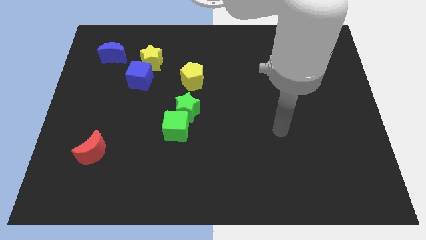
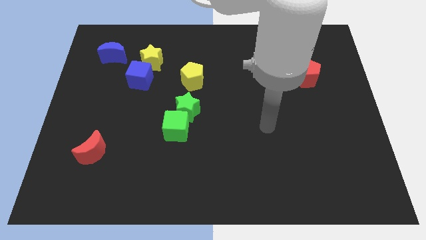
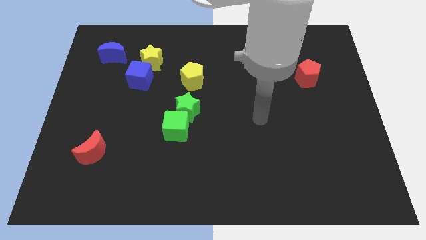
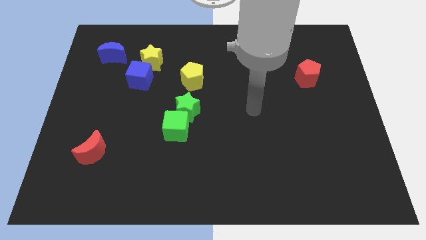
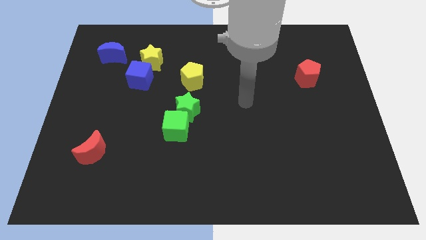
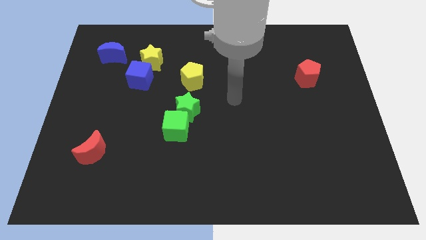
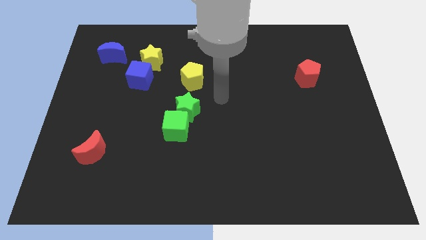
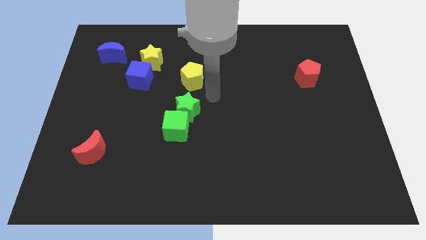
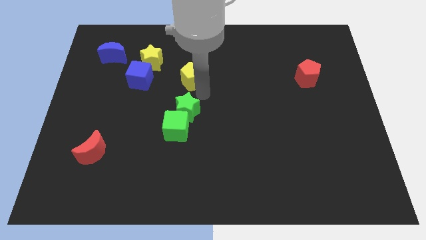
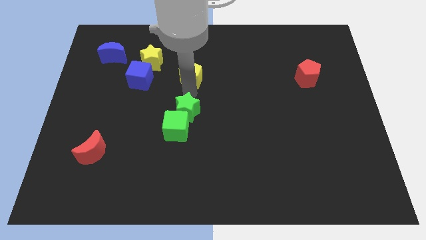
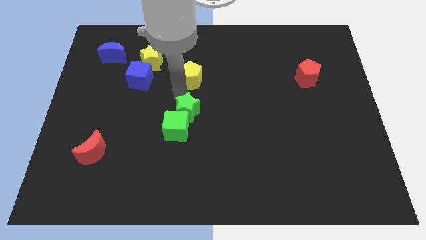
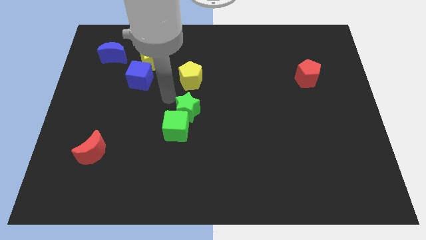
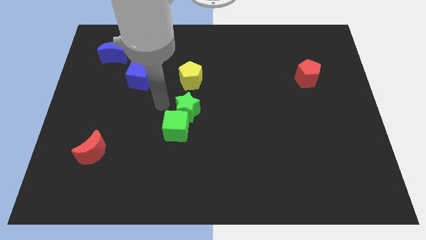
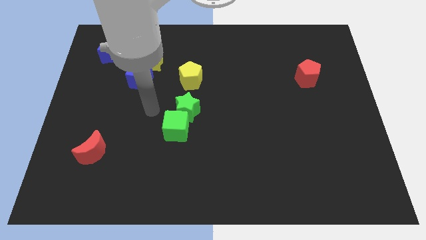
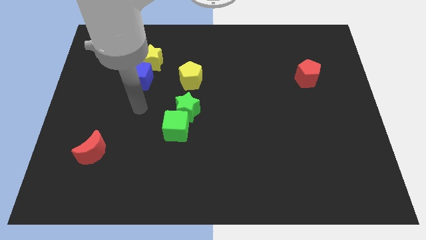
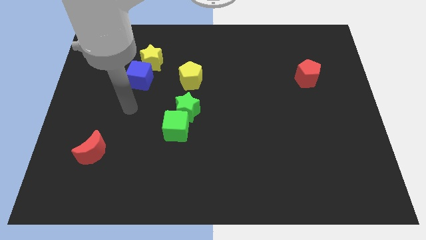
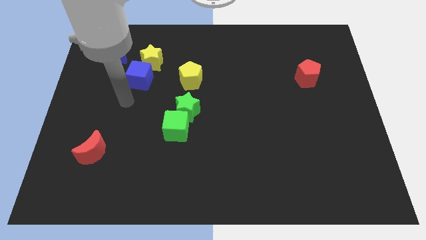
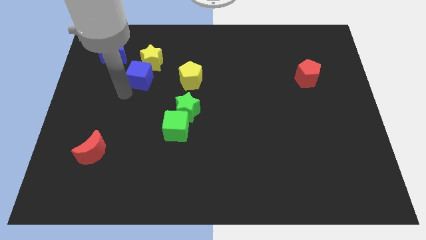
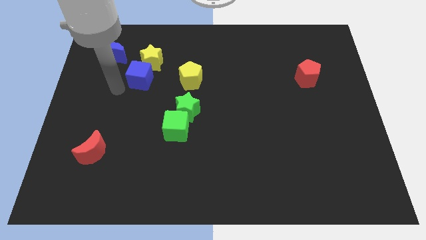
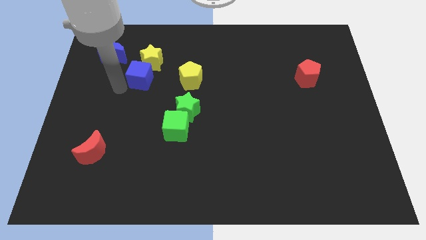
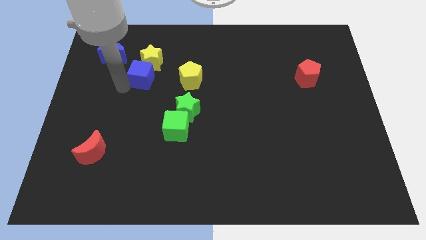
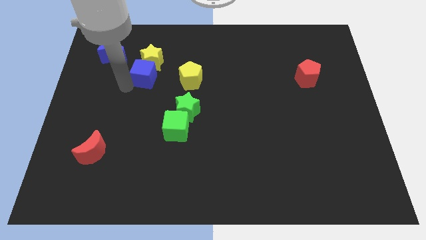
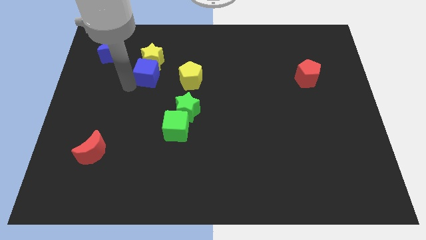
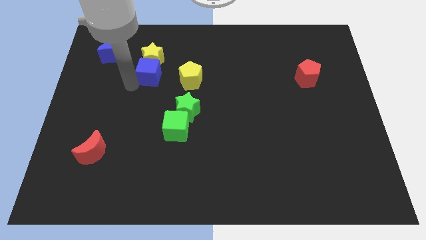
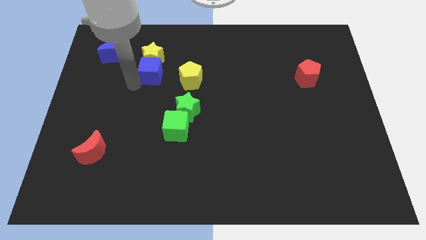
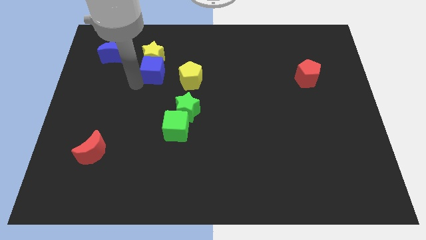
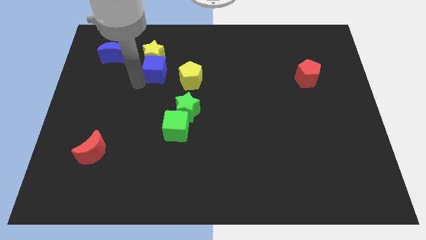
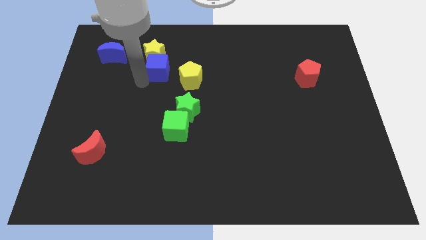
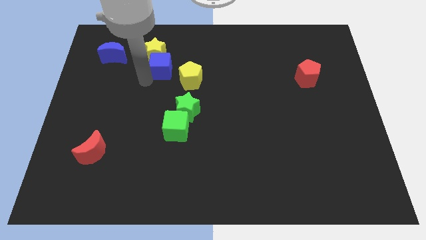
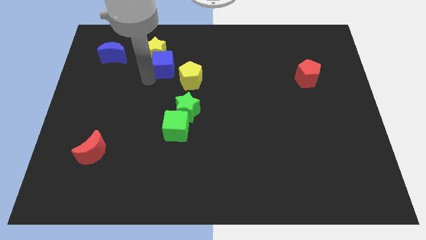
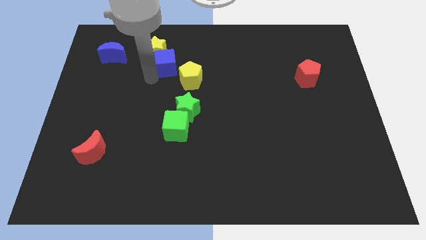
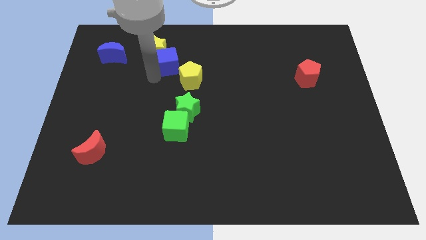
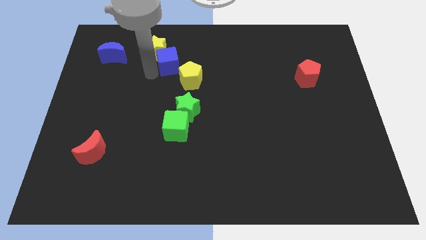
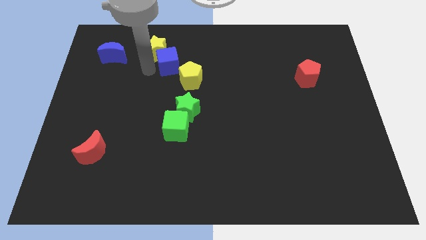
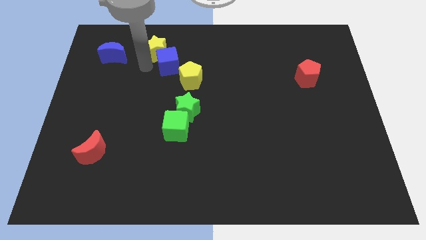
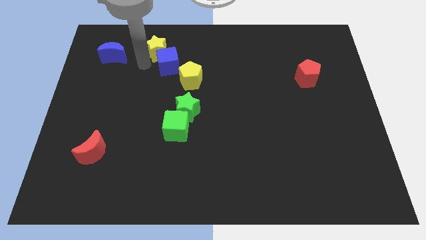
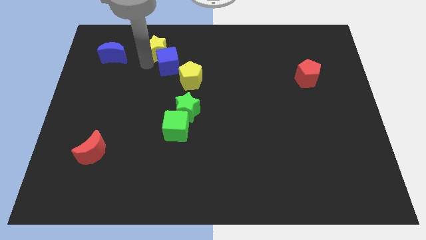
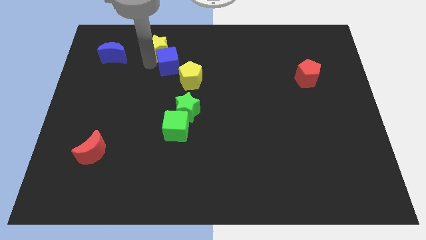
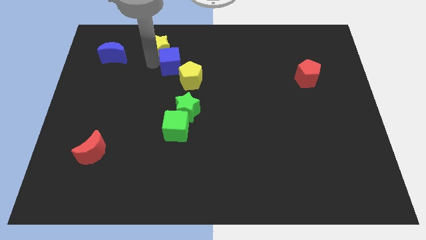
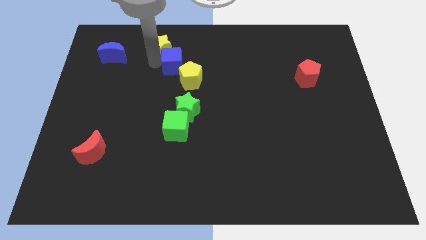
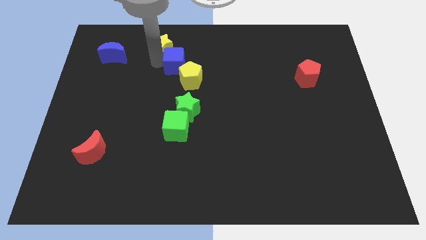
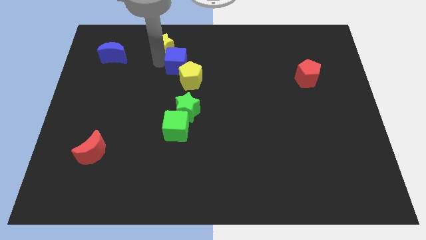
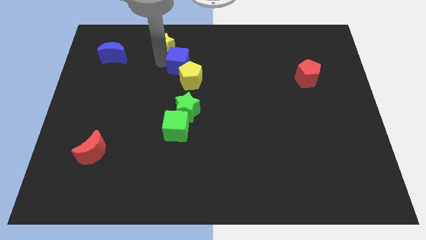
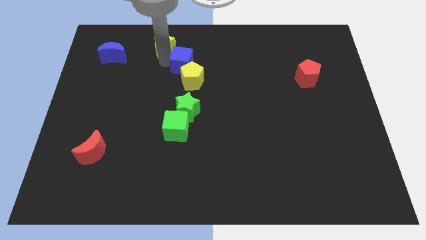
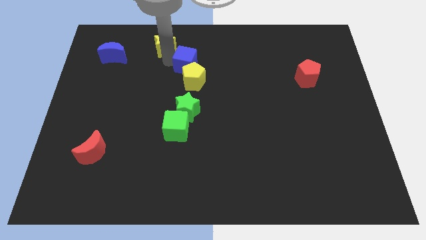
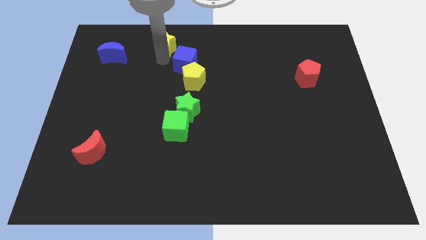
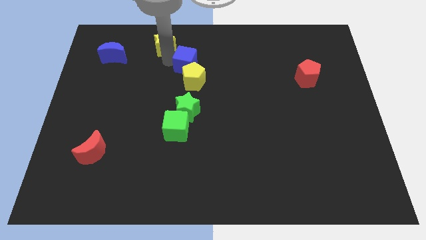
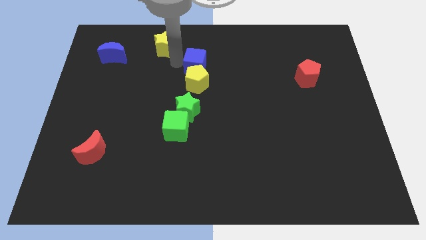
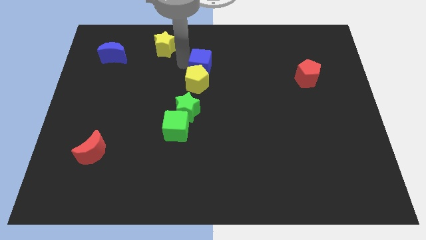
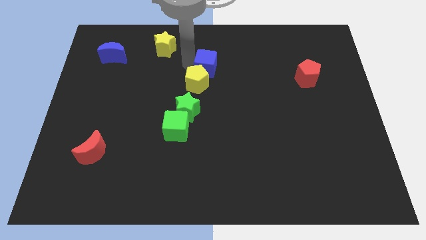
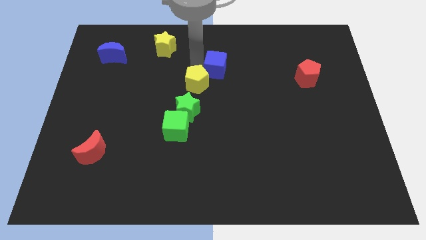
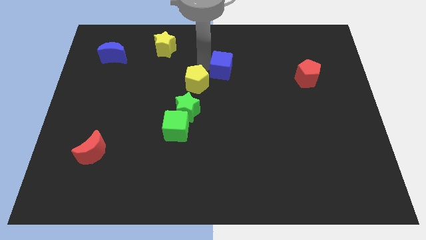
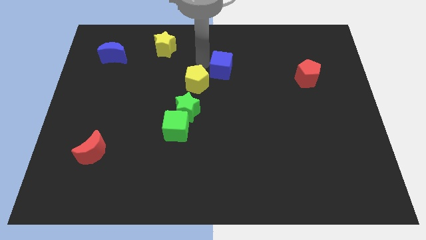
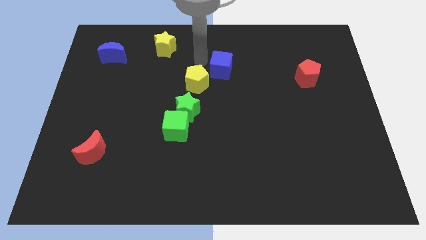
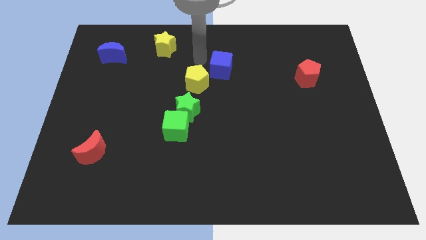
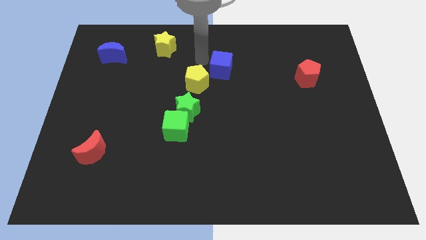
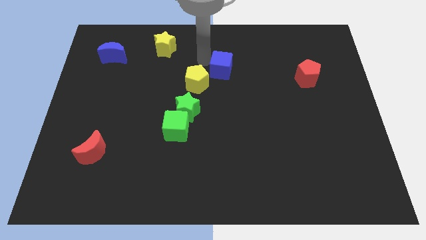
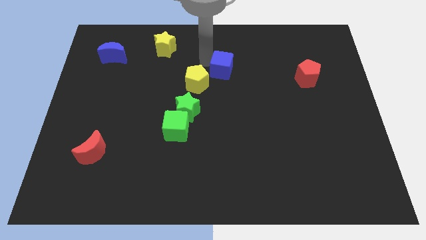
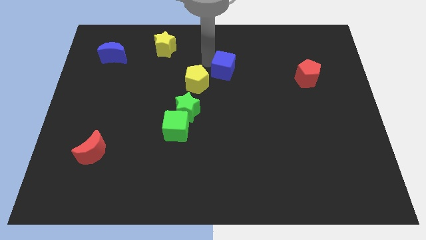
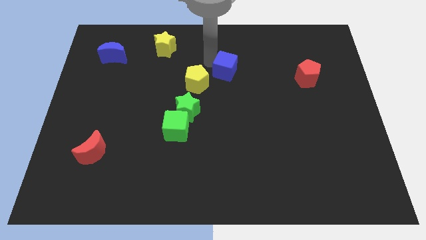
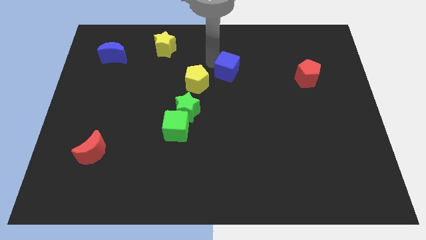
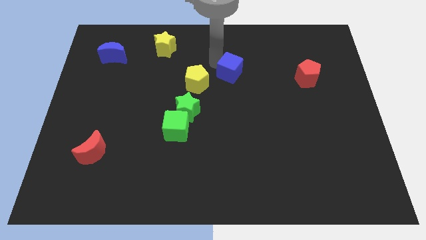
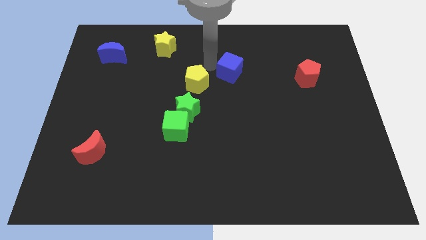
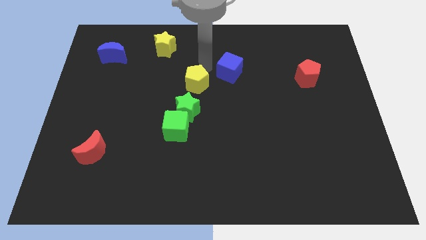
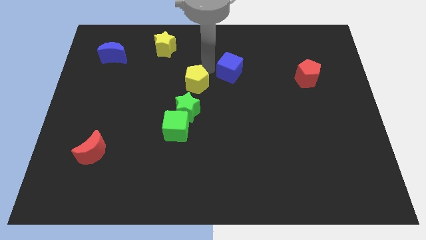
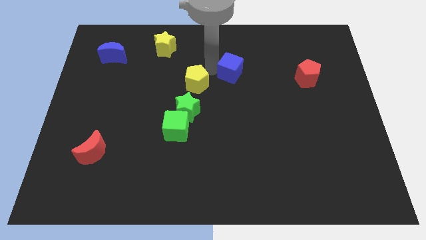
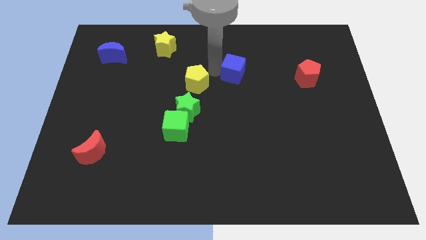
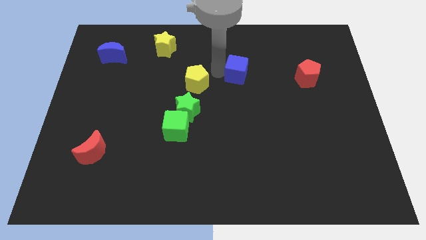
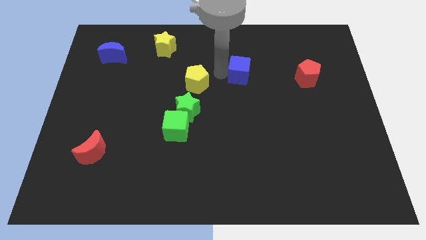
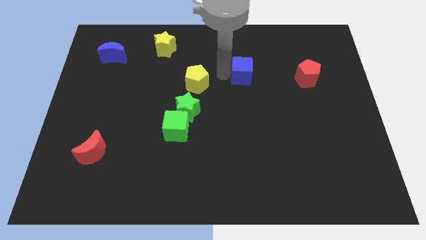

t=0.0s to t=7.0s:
put the blue cube to the left of the red pentagon
